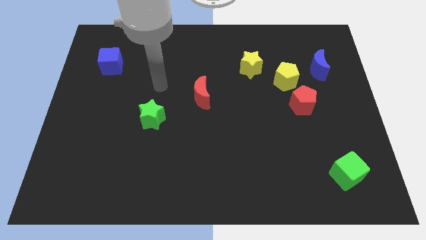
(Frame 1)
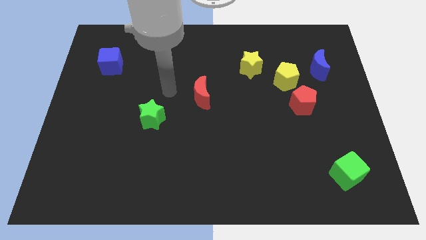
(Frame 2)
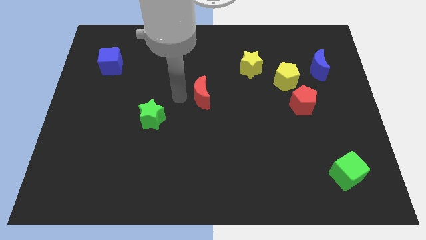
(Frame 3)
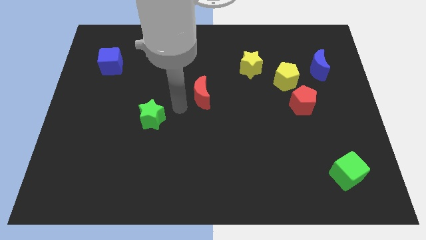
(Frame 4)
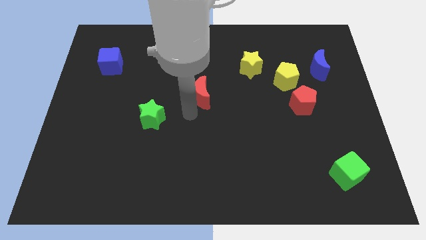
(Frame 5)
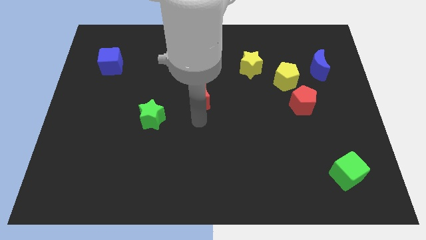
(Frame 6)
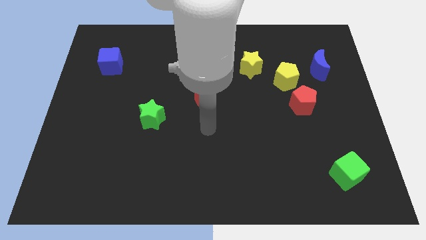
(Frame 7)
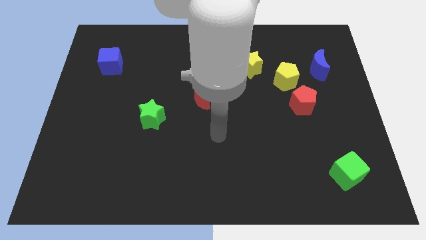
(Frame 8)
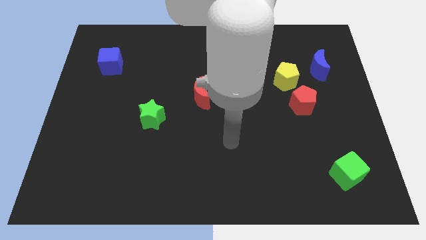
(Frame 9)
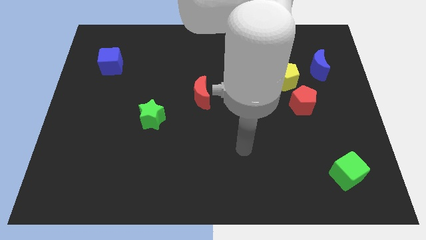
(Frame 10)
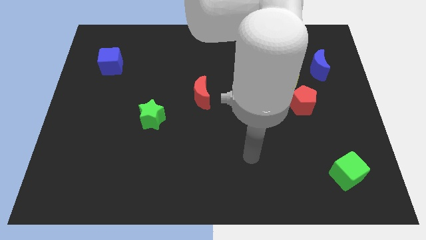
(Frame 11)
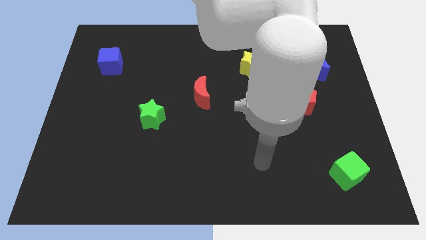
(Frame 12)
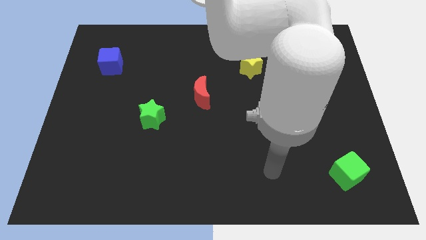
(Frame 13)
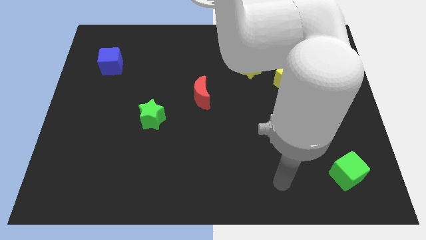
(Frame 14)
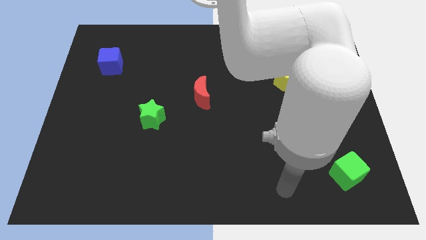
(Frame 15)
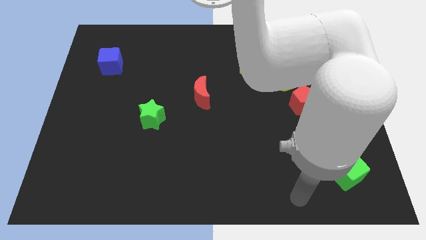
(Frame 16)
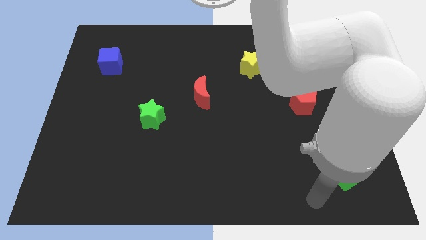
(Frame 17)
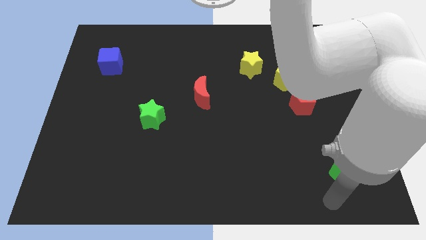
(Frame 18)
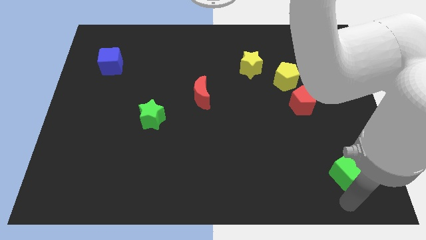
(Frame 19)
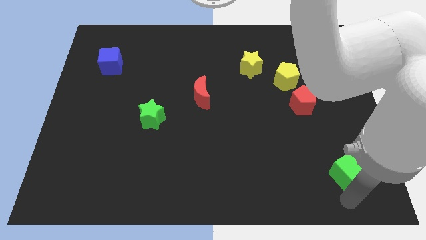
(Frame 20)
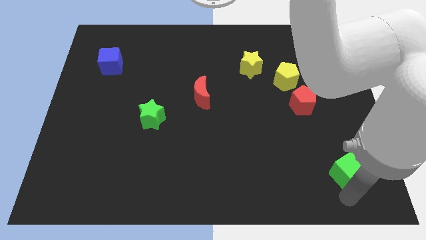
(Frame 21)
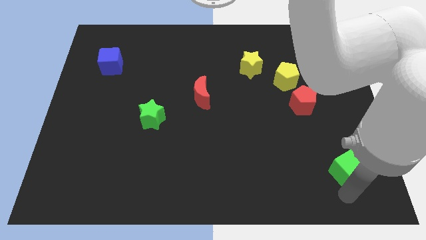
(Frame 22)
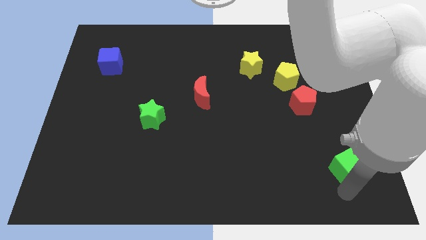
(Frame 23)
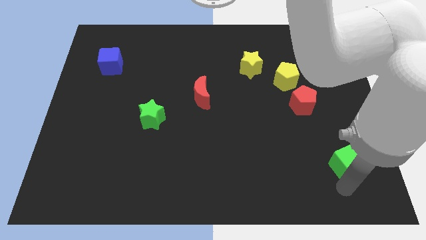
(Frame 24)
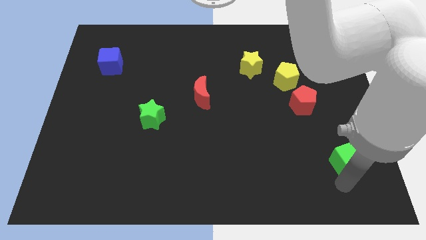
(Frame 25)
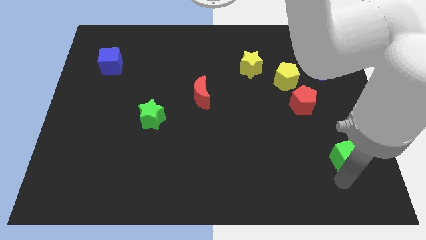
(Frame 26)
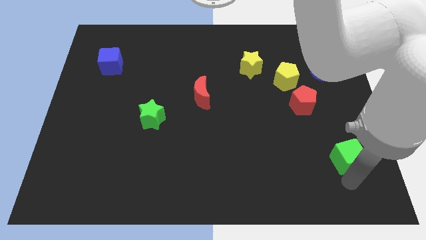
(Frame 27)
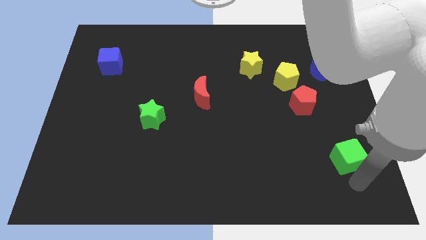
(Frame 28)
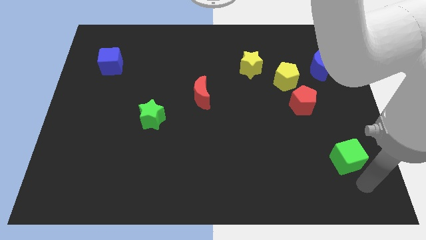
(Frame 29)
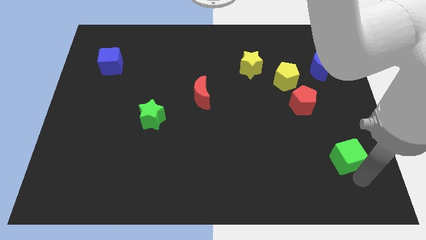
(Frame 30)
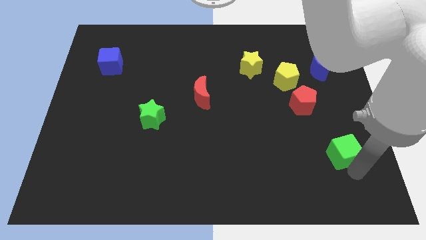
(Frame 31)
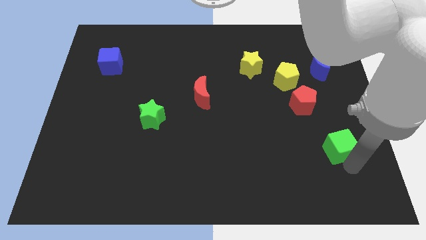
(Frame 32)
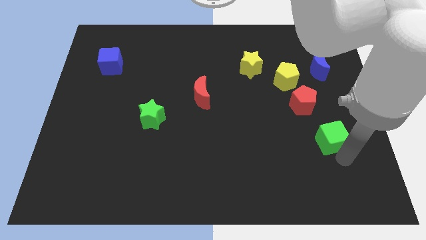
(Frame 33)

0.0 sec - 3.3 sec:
slightly move the green cube upwards

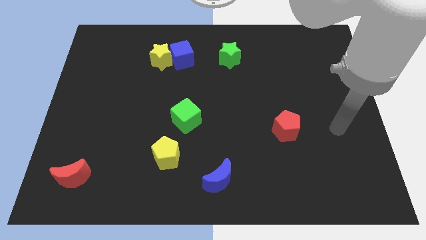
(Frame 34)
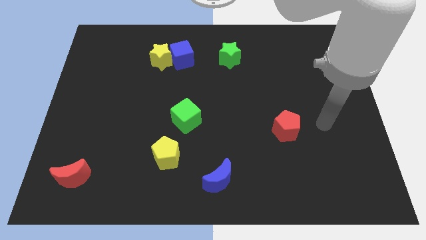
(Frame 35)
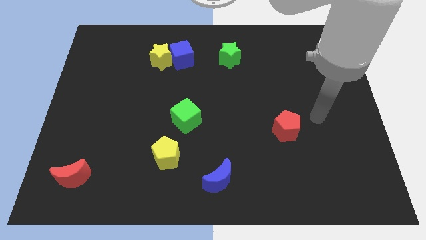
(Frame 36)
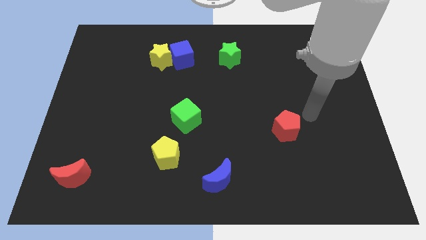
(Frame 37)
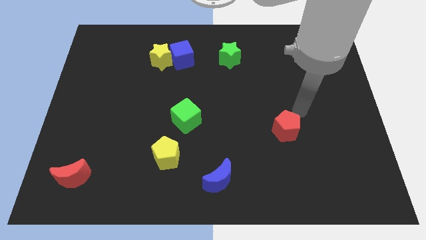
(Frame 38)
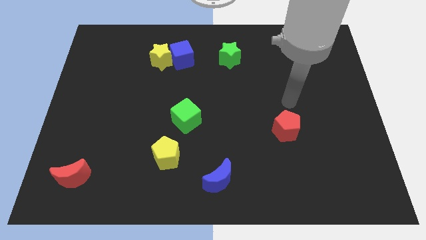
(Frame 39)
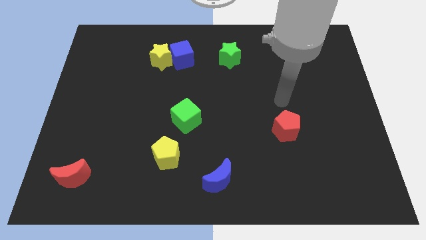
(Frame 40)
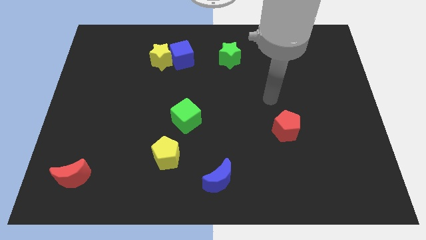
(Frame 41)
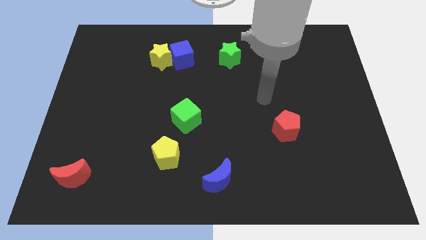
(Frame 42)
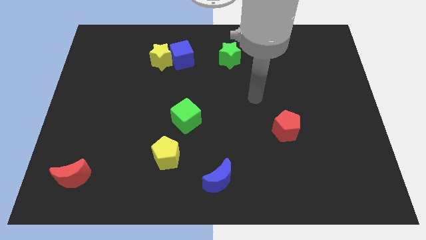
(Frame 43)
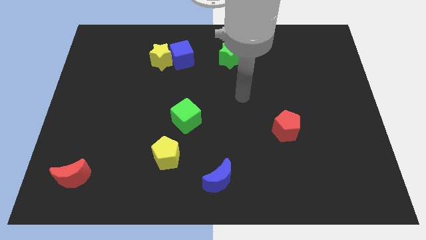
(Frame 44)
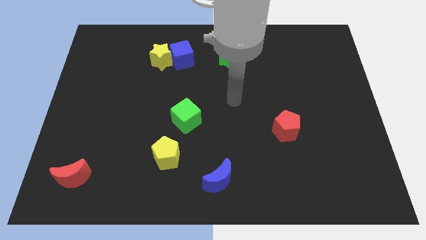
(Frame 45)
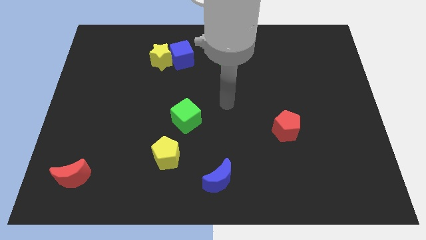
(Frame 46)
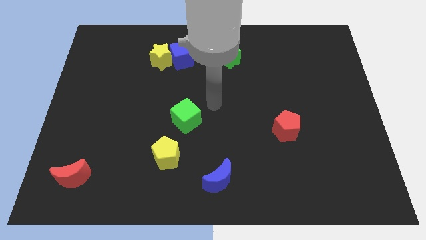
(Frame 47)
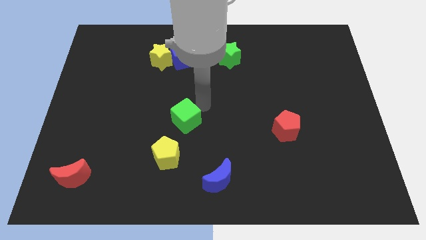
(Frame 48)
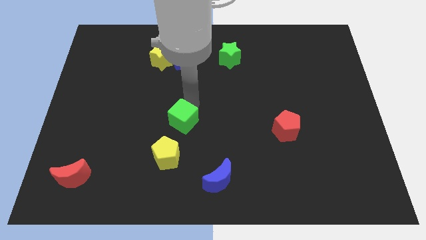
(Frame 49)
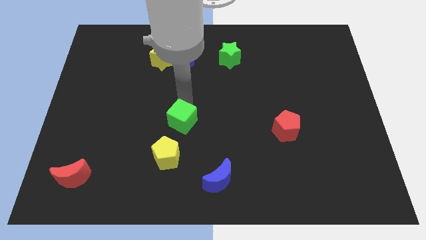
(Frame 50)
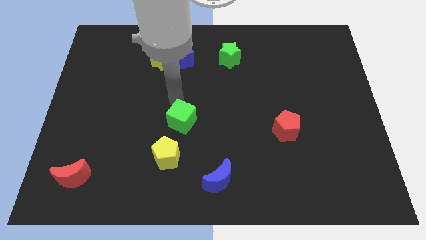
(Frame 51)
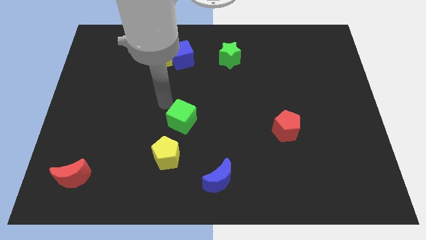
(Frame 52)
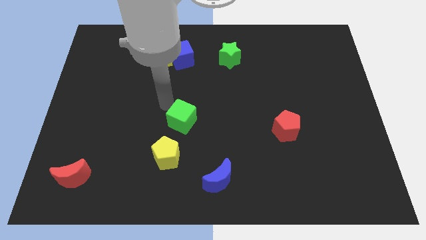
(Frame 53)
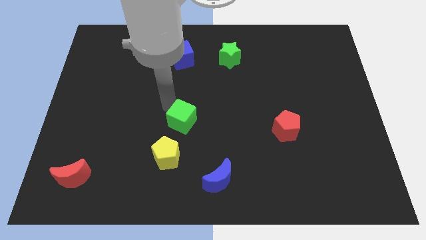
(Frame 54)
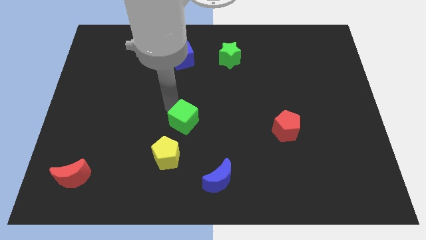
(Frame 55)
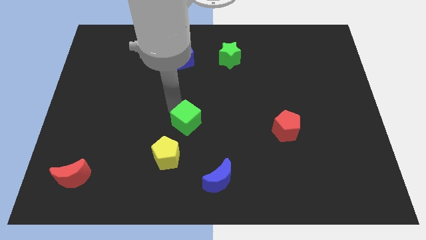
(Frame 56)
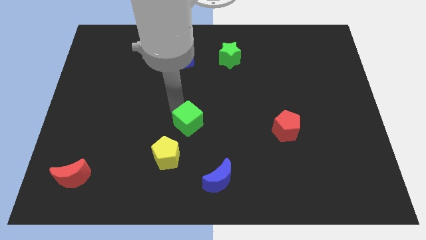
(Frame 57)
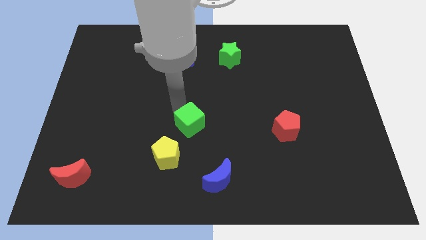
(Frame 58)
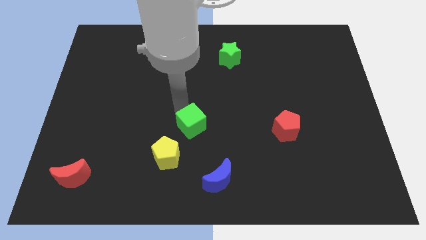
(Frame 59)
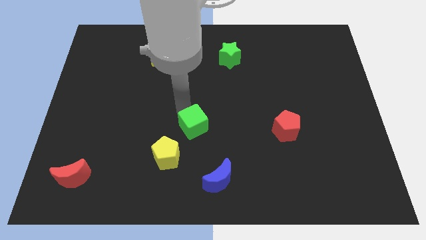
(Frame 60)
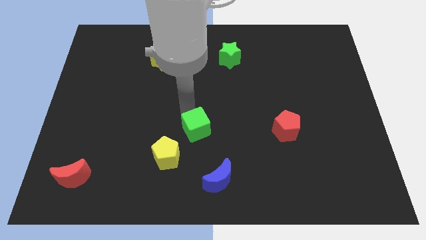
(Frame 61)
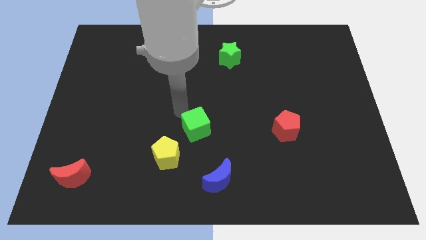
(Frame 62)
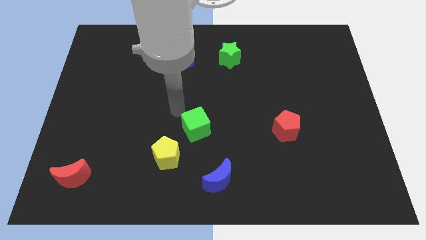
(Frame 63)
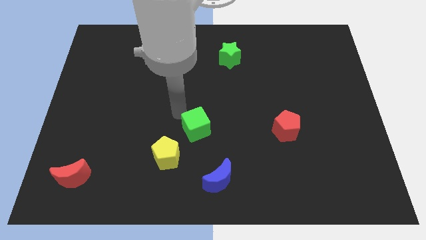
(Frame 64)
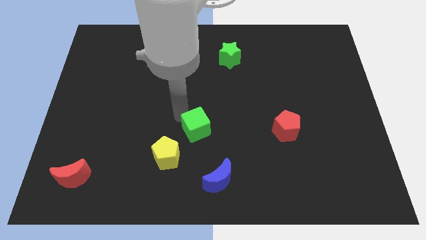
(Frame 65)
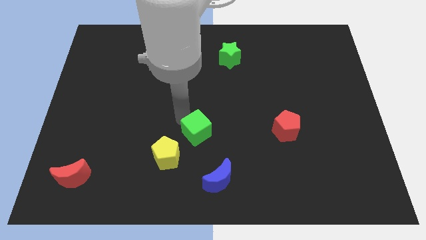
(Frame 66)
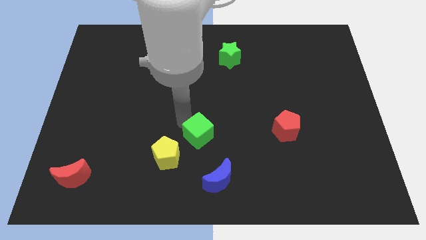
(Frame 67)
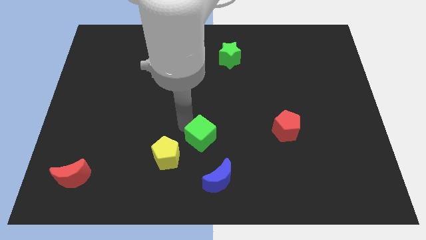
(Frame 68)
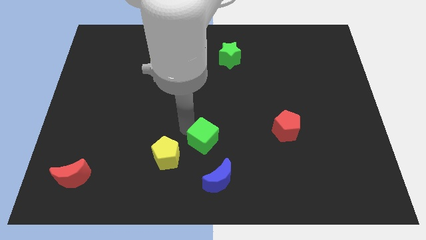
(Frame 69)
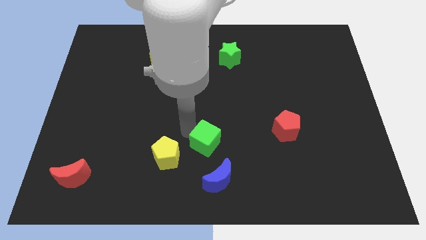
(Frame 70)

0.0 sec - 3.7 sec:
move the green cube a bit down and then to the right

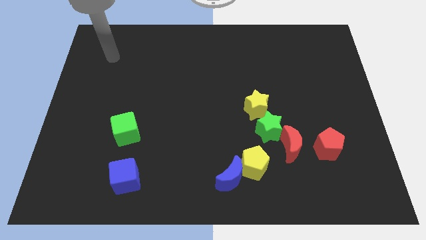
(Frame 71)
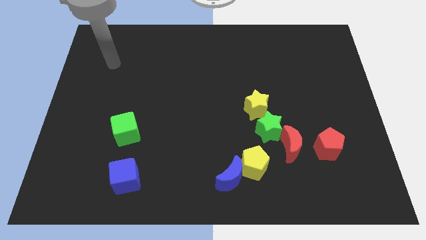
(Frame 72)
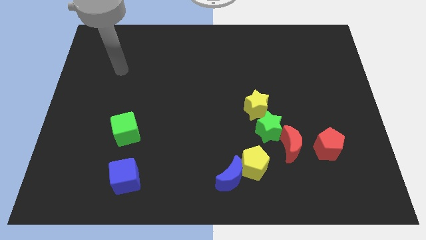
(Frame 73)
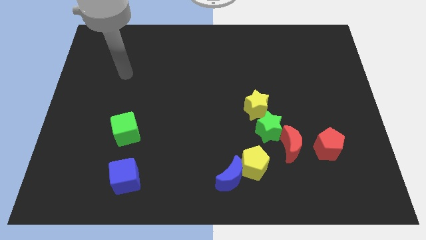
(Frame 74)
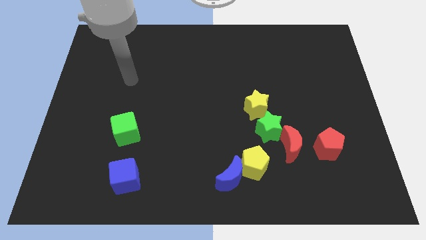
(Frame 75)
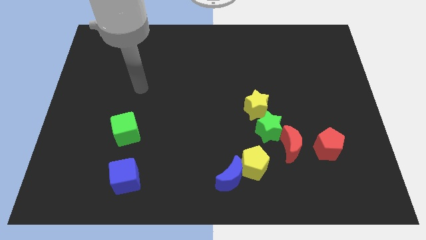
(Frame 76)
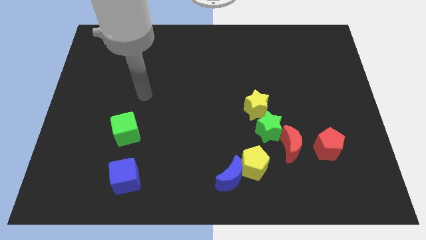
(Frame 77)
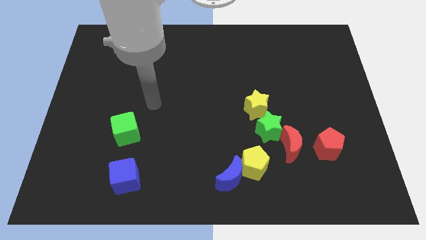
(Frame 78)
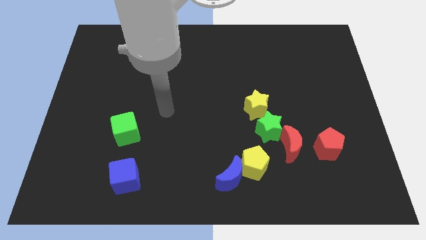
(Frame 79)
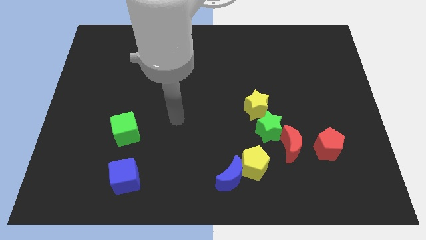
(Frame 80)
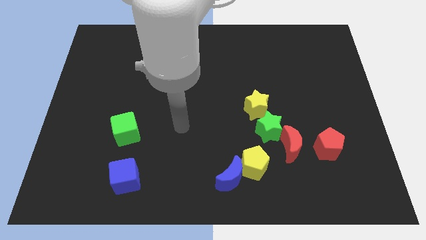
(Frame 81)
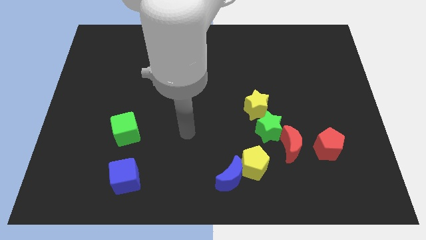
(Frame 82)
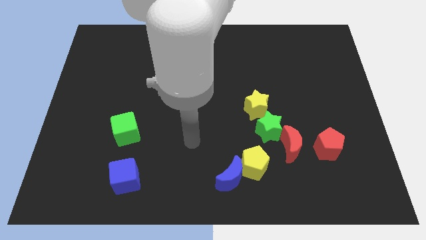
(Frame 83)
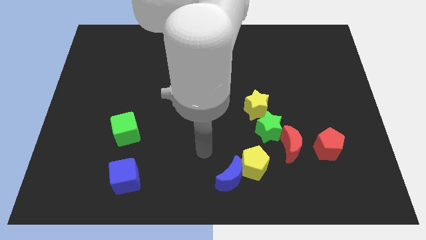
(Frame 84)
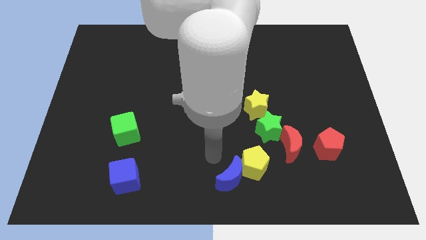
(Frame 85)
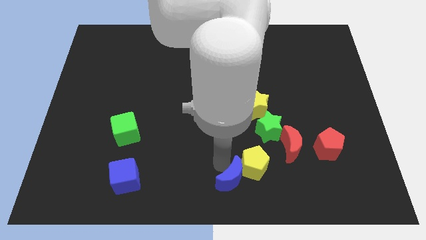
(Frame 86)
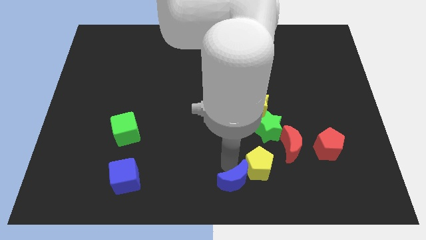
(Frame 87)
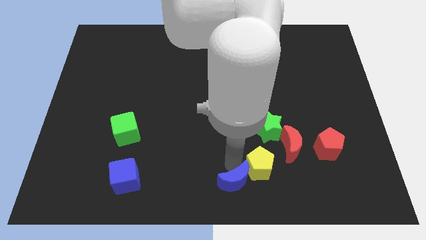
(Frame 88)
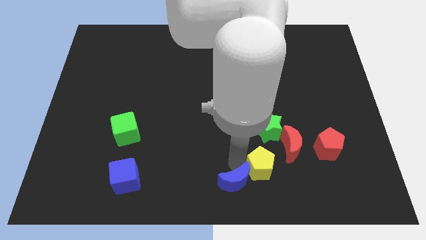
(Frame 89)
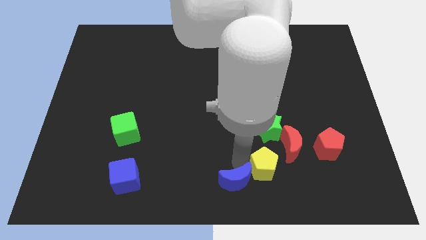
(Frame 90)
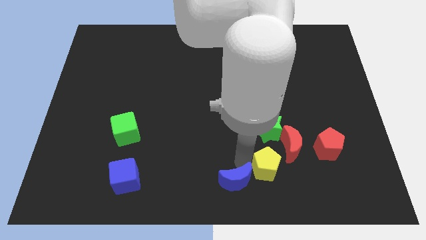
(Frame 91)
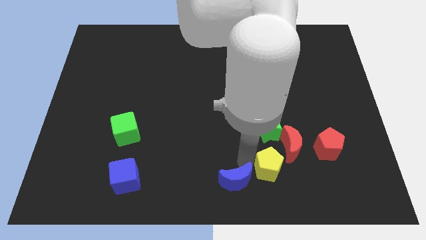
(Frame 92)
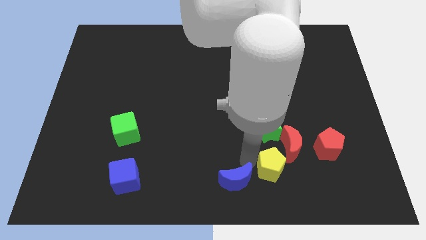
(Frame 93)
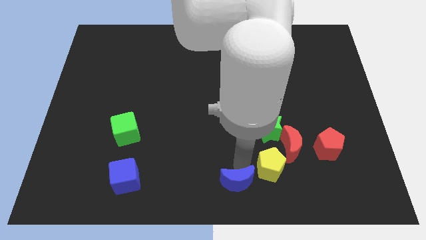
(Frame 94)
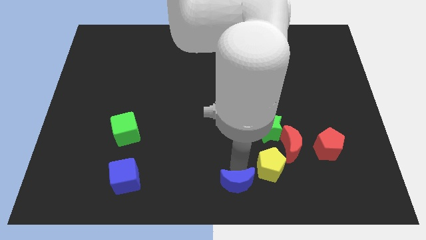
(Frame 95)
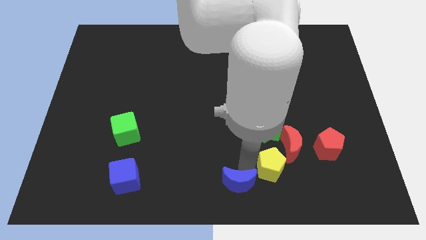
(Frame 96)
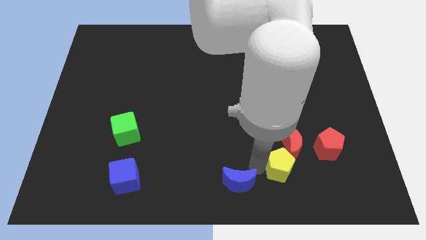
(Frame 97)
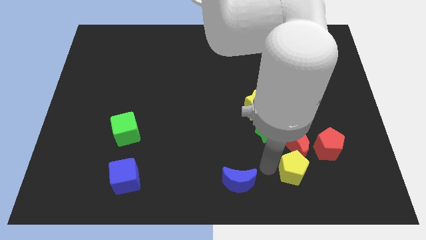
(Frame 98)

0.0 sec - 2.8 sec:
slightly slide the yellow pentagon right
